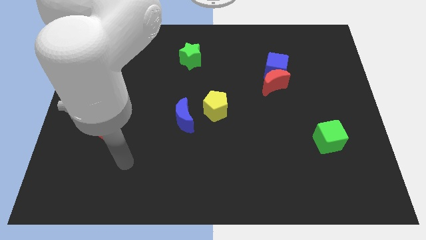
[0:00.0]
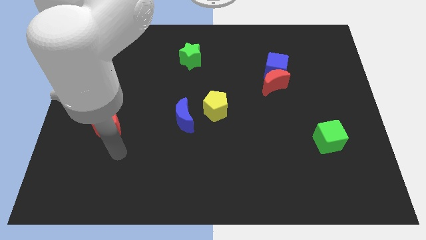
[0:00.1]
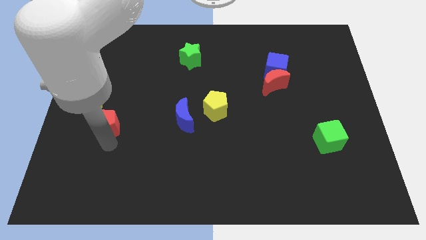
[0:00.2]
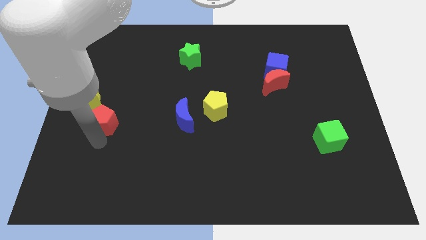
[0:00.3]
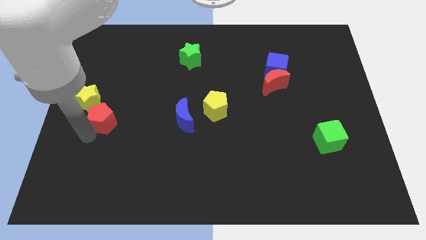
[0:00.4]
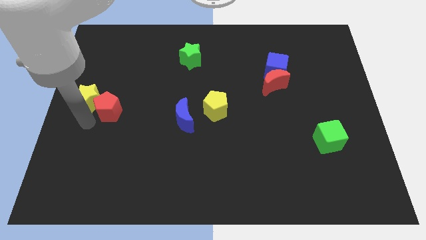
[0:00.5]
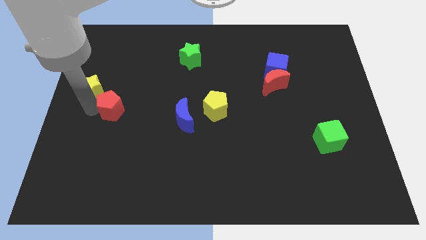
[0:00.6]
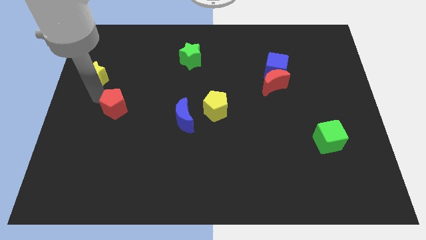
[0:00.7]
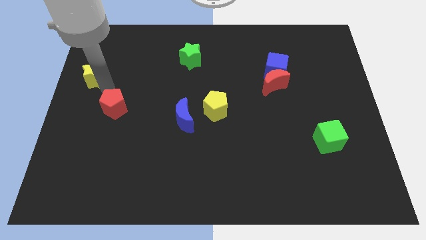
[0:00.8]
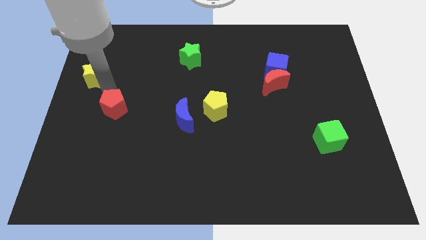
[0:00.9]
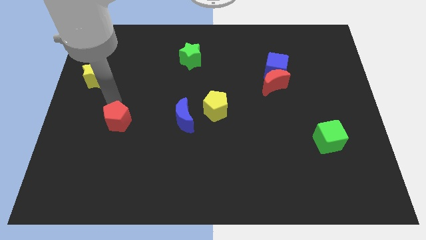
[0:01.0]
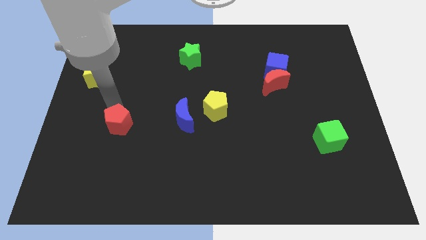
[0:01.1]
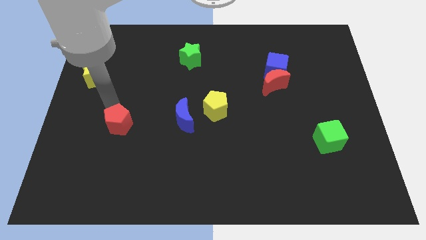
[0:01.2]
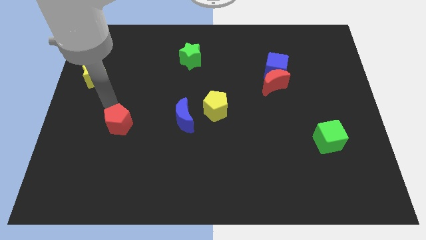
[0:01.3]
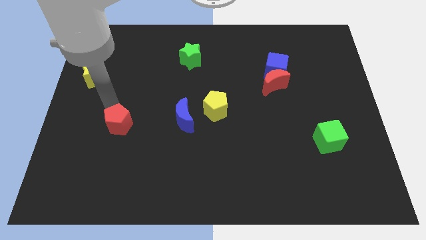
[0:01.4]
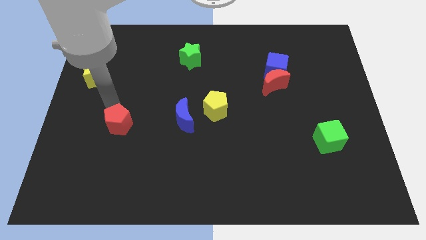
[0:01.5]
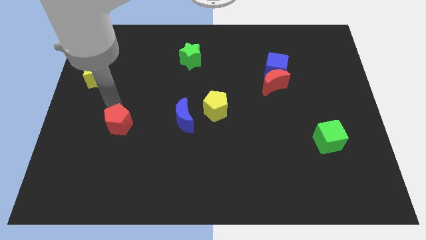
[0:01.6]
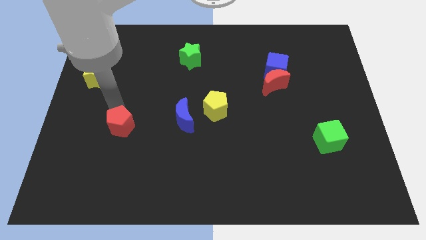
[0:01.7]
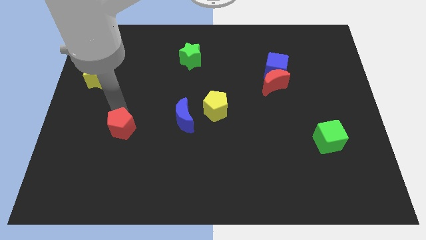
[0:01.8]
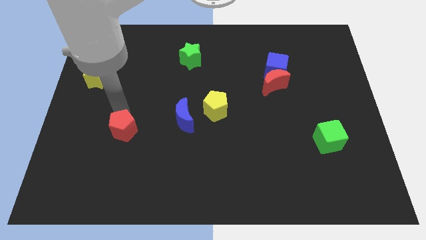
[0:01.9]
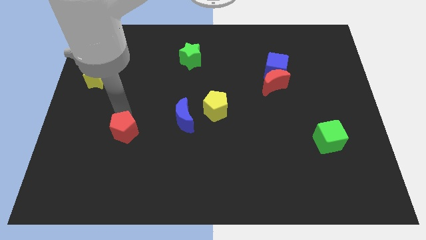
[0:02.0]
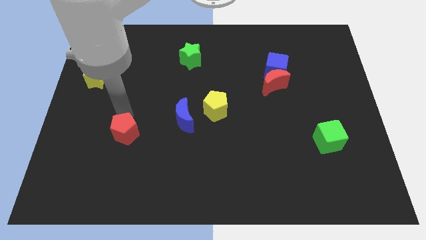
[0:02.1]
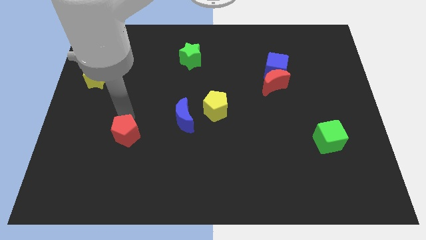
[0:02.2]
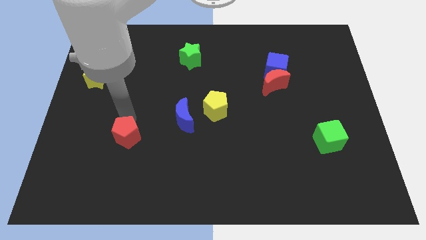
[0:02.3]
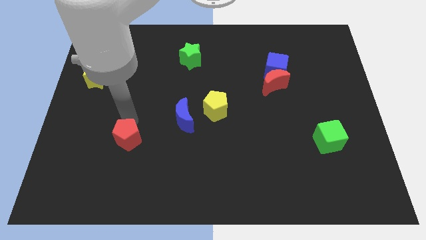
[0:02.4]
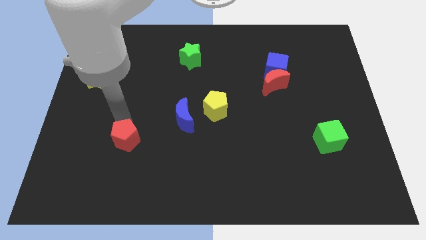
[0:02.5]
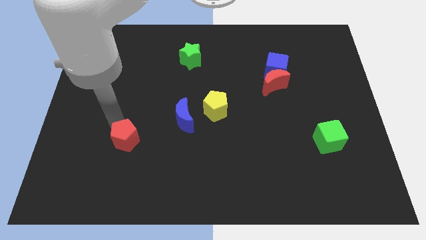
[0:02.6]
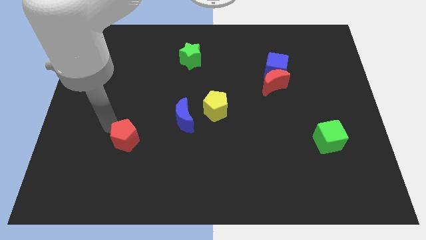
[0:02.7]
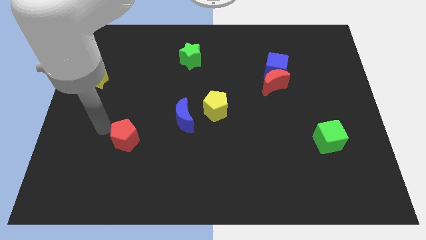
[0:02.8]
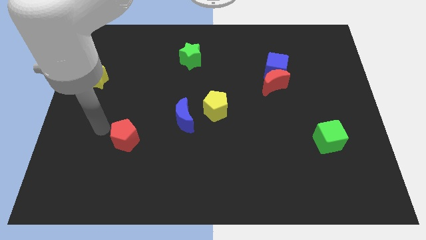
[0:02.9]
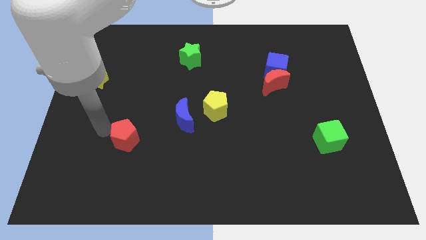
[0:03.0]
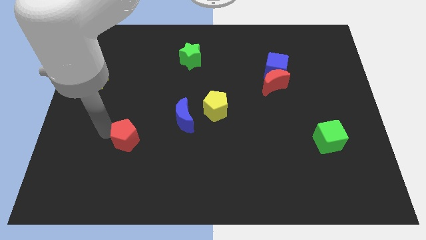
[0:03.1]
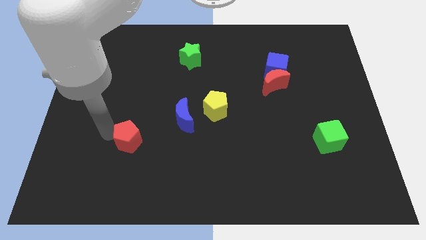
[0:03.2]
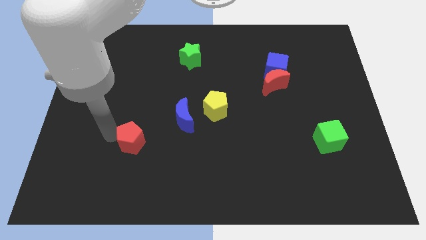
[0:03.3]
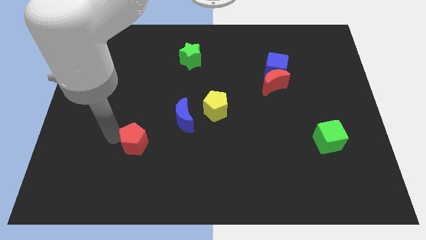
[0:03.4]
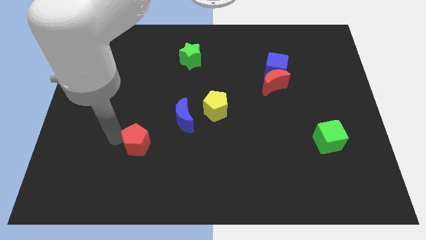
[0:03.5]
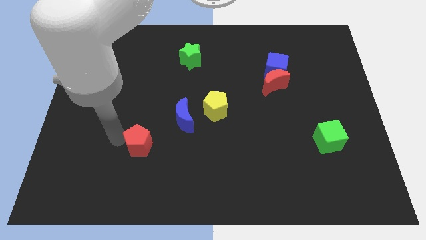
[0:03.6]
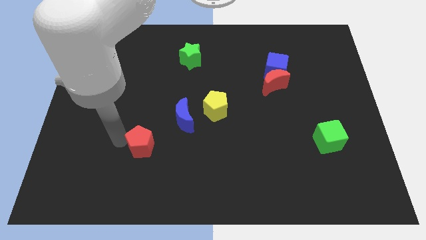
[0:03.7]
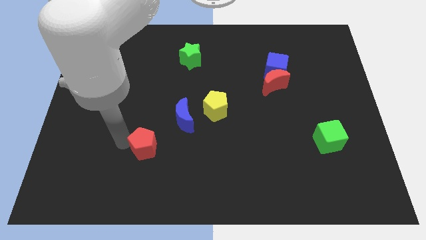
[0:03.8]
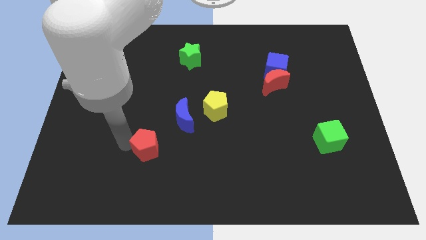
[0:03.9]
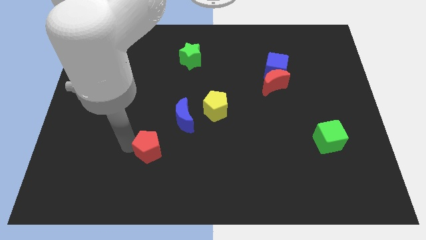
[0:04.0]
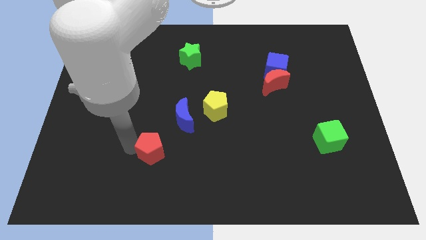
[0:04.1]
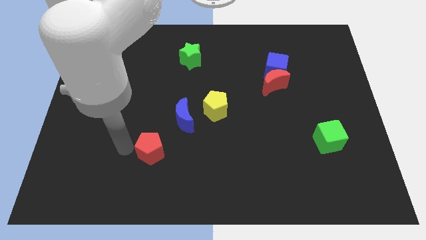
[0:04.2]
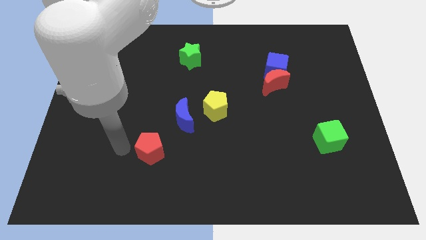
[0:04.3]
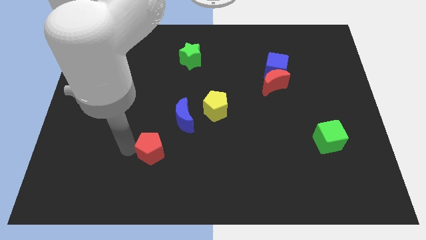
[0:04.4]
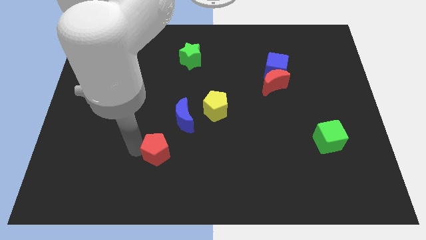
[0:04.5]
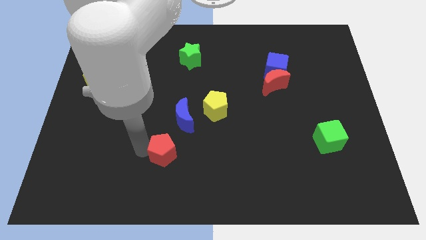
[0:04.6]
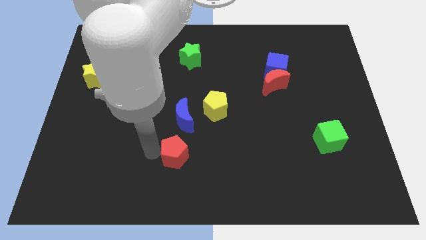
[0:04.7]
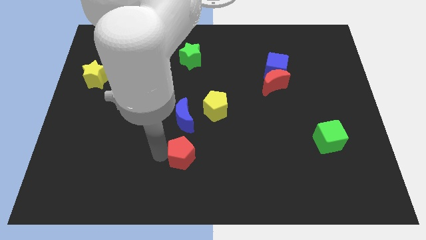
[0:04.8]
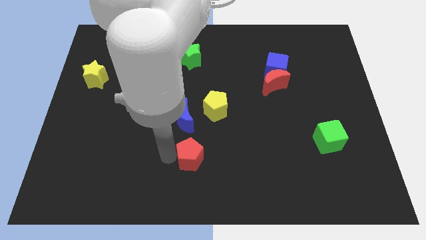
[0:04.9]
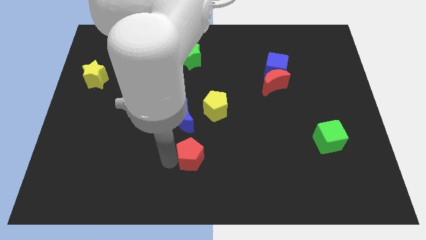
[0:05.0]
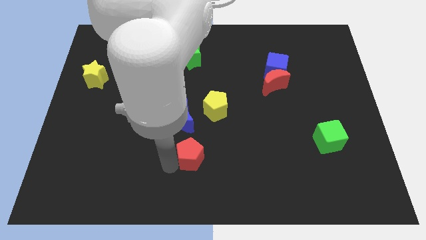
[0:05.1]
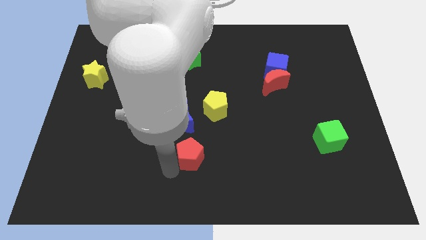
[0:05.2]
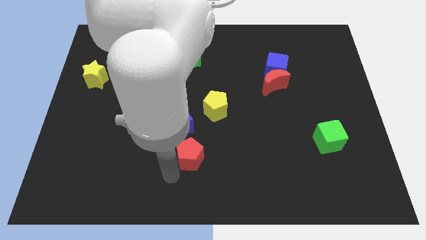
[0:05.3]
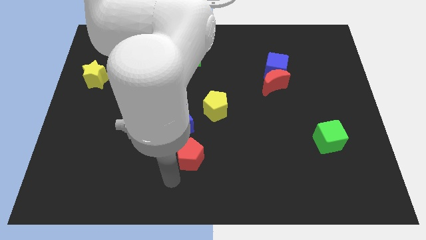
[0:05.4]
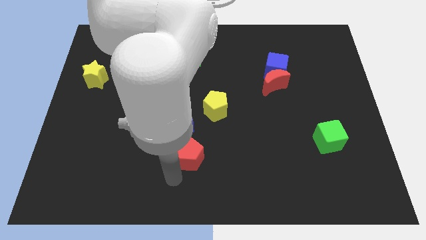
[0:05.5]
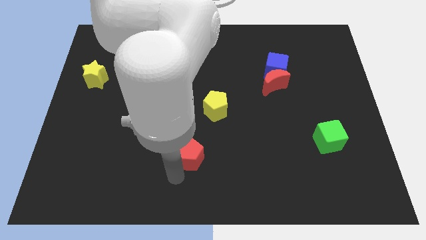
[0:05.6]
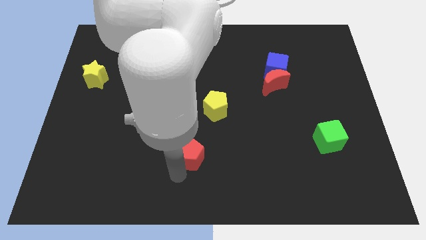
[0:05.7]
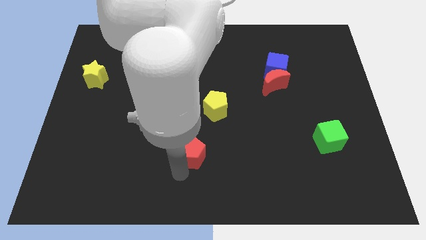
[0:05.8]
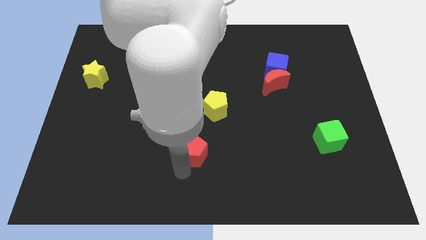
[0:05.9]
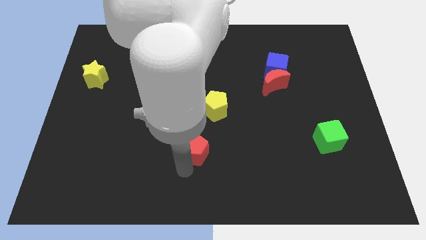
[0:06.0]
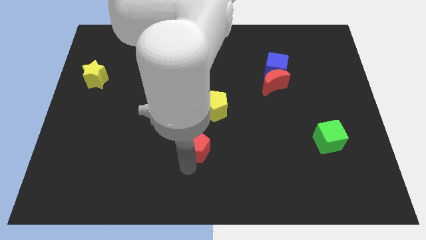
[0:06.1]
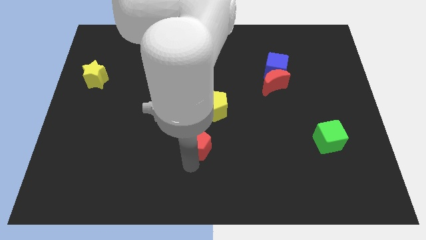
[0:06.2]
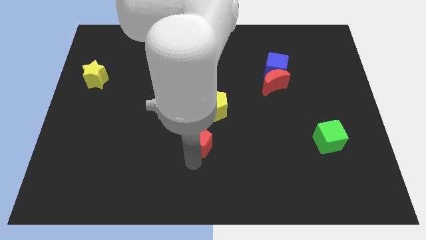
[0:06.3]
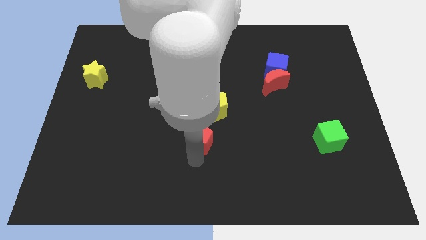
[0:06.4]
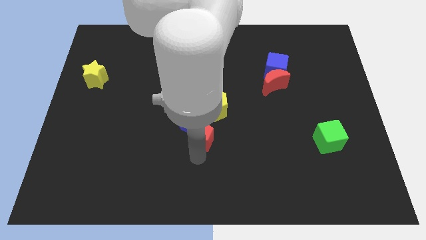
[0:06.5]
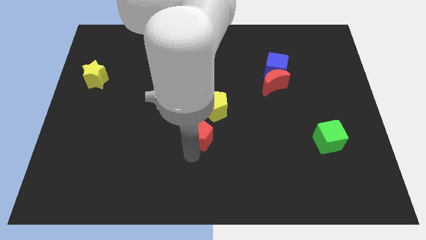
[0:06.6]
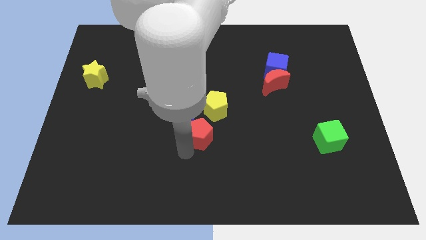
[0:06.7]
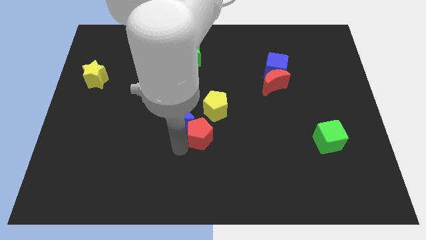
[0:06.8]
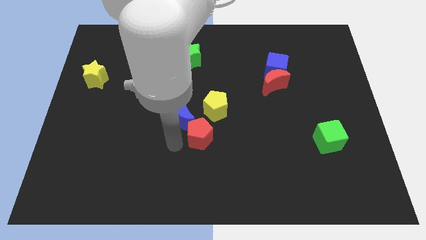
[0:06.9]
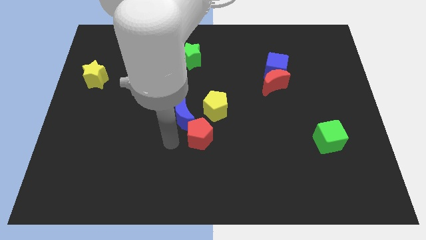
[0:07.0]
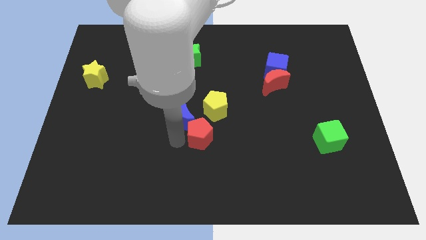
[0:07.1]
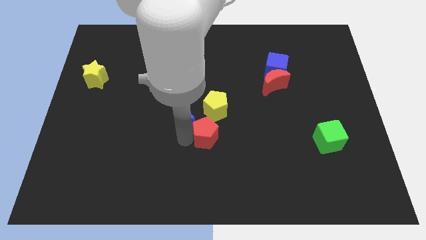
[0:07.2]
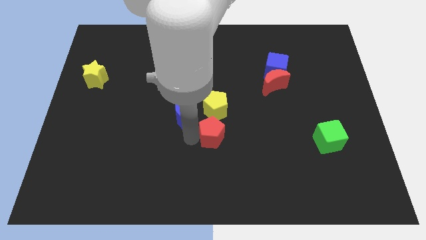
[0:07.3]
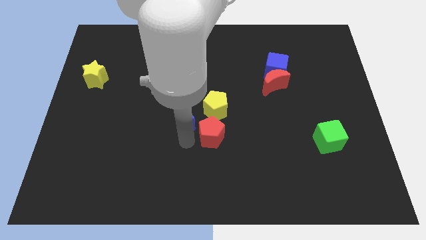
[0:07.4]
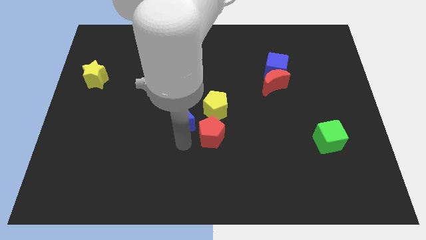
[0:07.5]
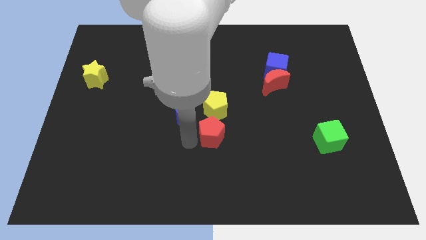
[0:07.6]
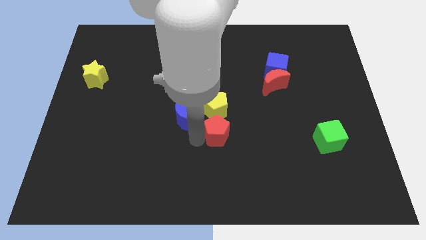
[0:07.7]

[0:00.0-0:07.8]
push the red pentagon to the bottom right of the yellow pentagon
